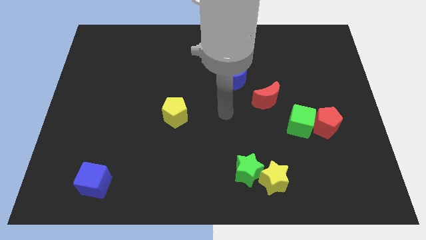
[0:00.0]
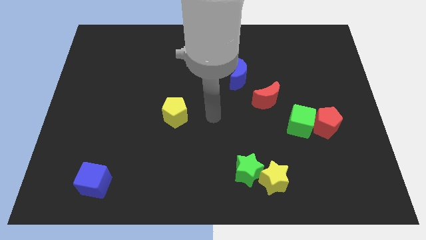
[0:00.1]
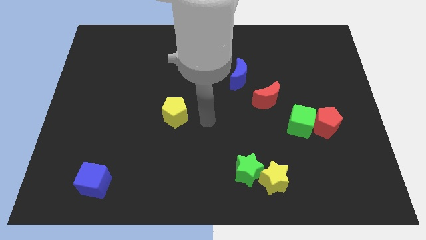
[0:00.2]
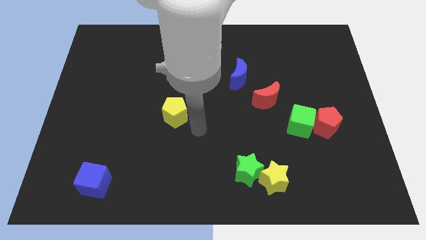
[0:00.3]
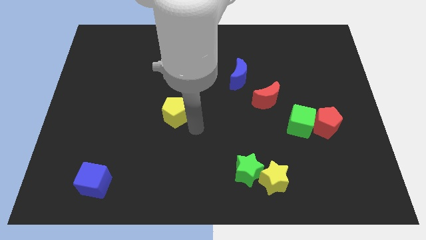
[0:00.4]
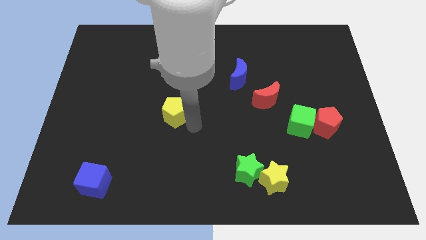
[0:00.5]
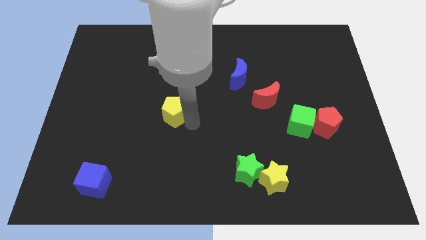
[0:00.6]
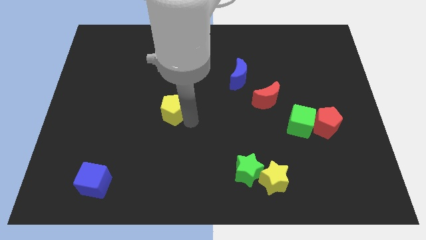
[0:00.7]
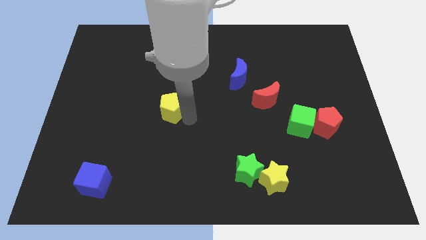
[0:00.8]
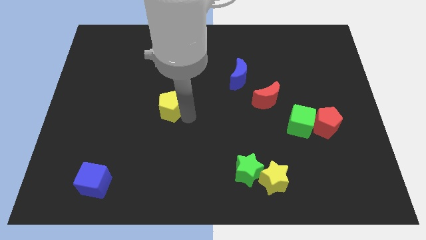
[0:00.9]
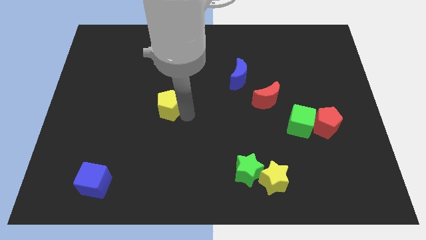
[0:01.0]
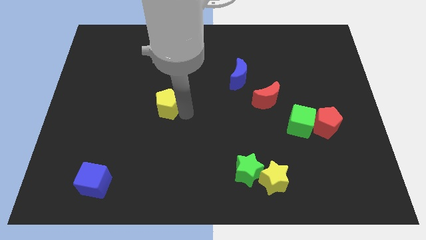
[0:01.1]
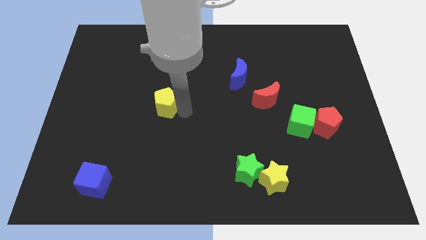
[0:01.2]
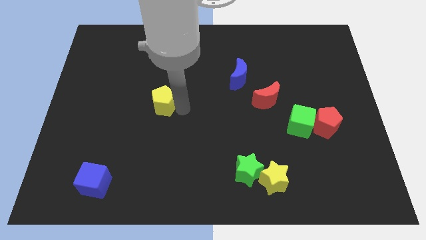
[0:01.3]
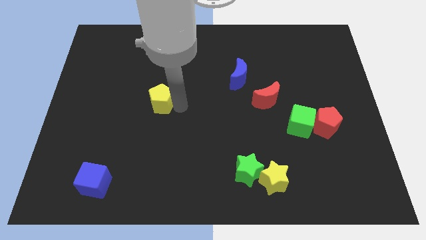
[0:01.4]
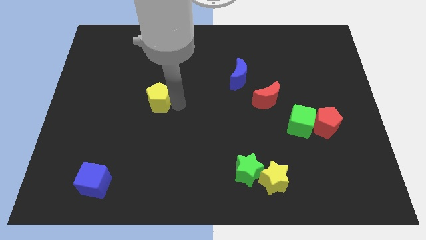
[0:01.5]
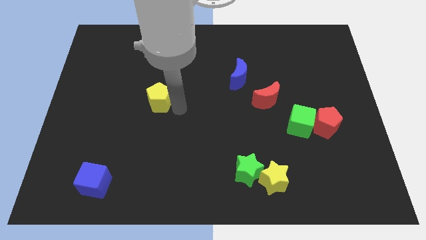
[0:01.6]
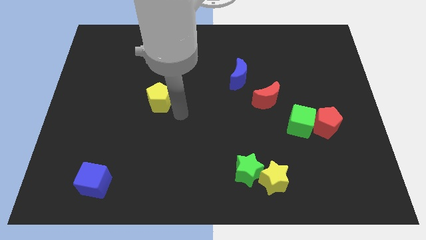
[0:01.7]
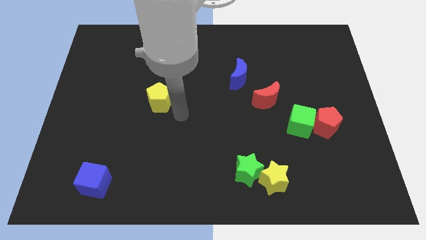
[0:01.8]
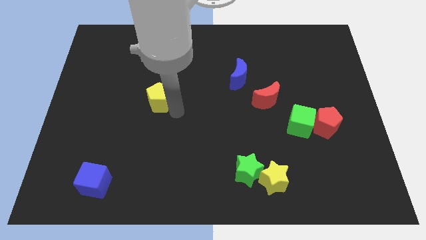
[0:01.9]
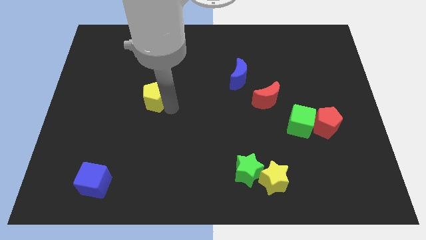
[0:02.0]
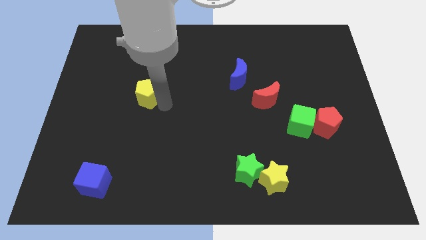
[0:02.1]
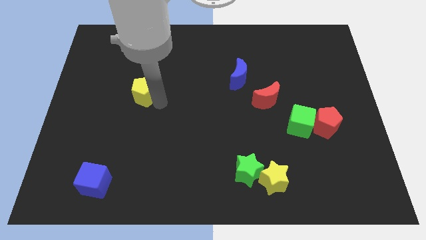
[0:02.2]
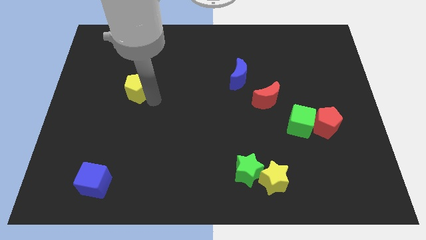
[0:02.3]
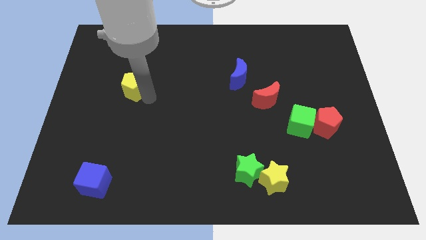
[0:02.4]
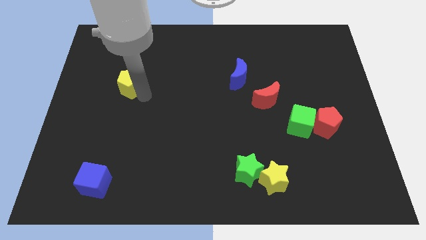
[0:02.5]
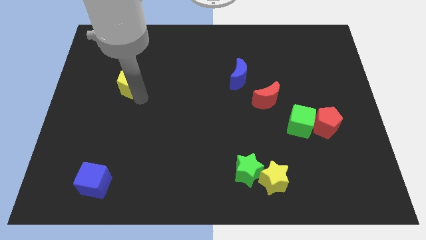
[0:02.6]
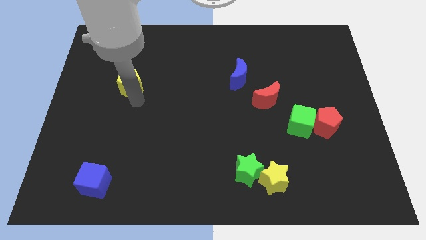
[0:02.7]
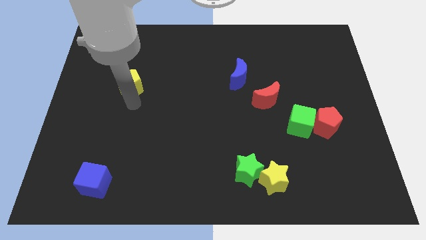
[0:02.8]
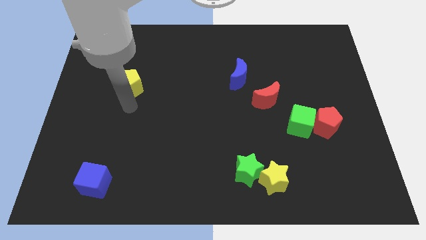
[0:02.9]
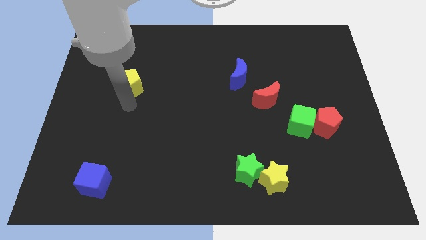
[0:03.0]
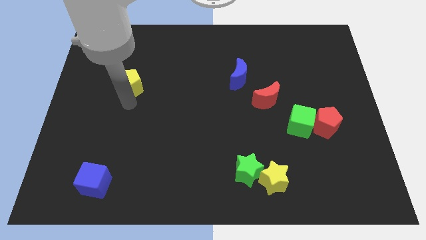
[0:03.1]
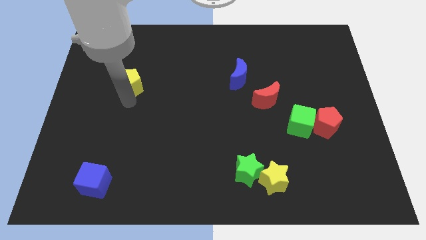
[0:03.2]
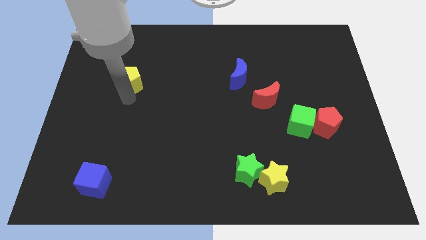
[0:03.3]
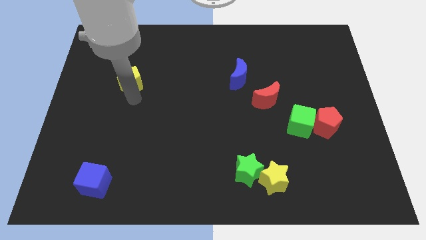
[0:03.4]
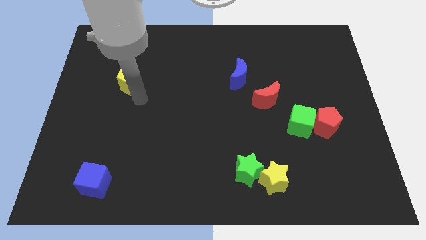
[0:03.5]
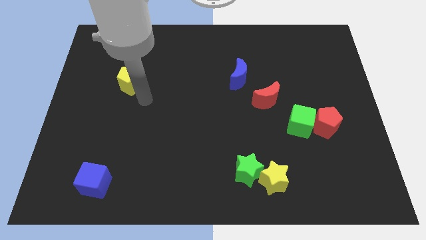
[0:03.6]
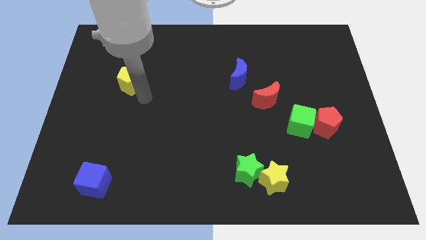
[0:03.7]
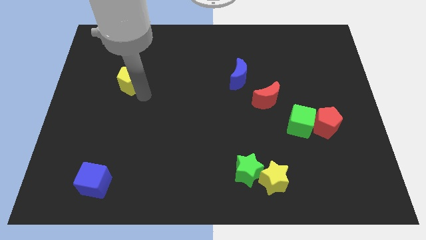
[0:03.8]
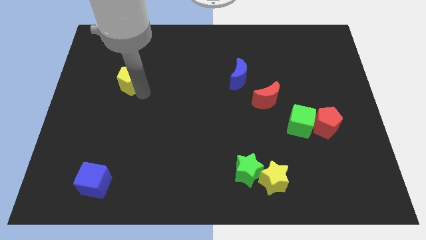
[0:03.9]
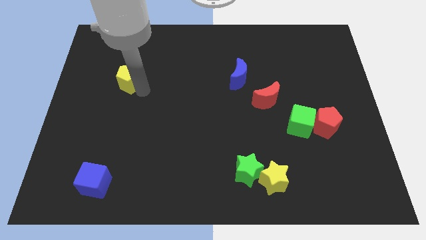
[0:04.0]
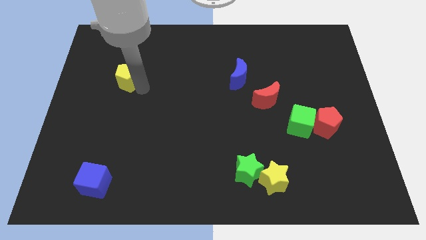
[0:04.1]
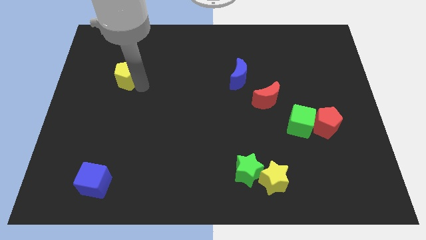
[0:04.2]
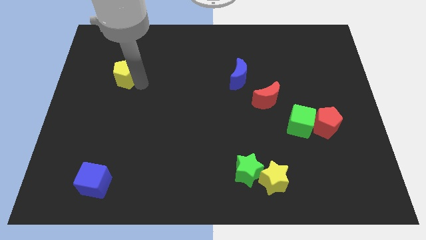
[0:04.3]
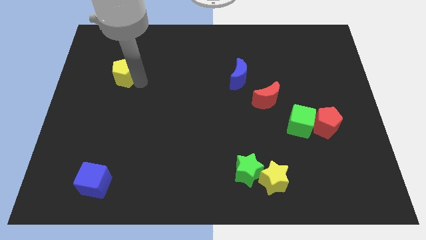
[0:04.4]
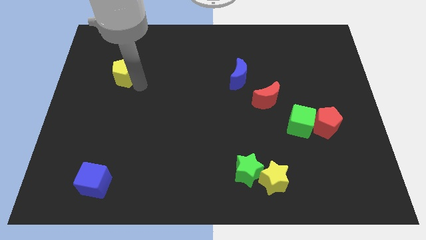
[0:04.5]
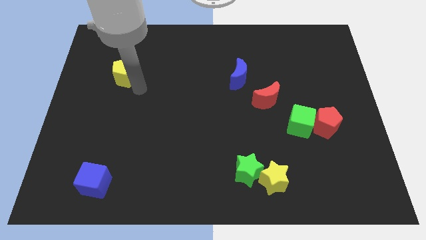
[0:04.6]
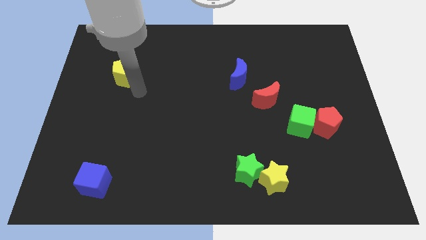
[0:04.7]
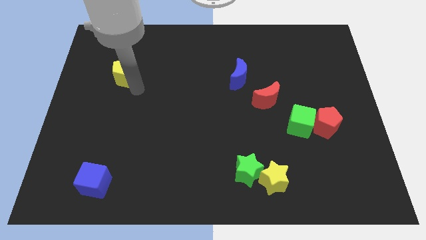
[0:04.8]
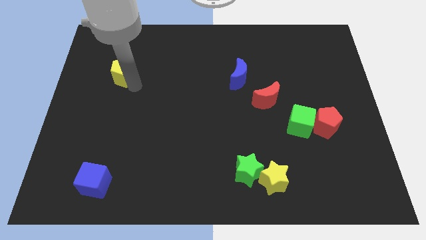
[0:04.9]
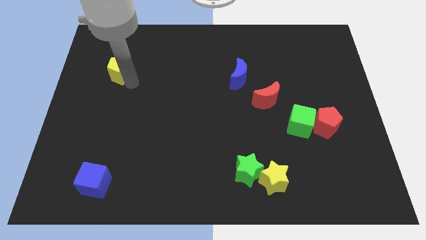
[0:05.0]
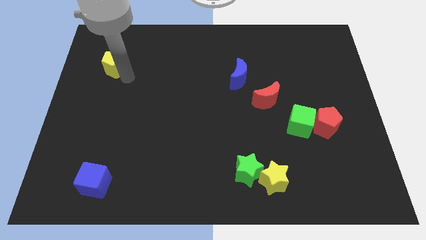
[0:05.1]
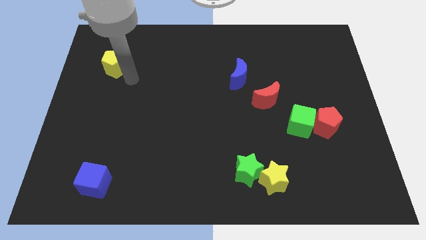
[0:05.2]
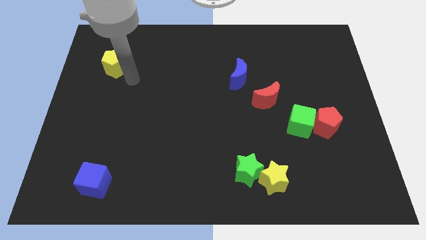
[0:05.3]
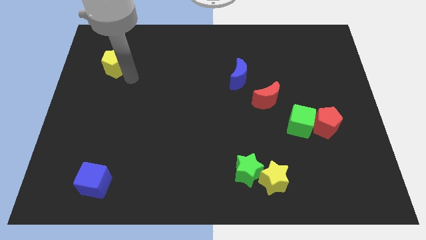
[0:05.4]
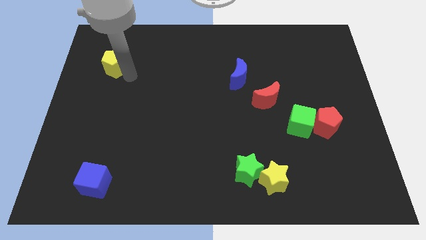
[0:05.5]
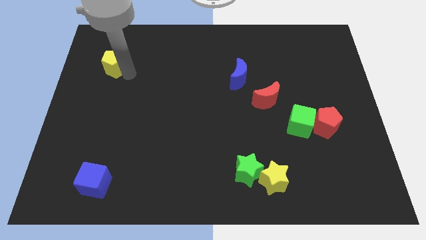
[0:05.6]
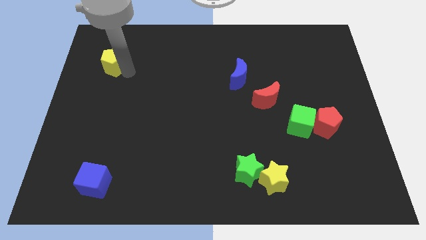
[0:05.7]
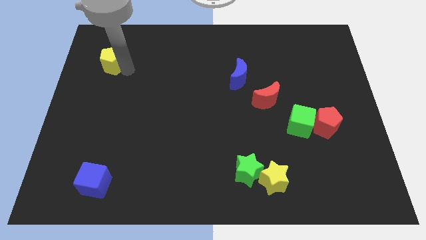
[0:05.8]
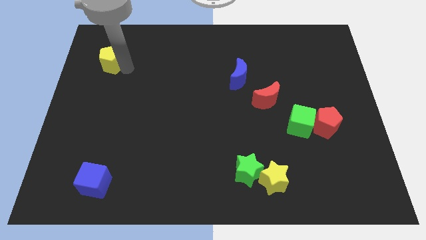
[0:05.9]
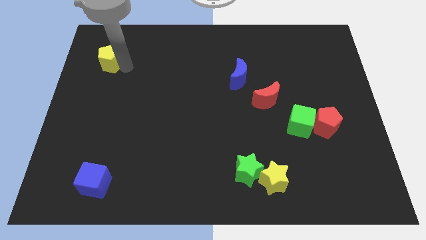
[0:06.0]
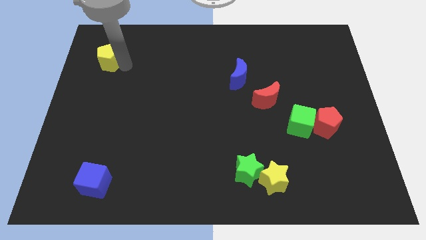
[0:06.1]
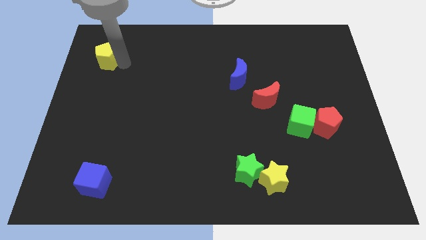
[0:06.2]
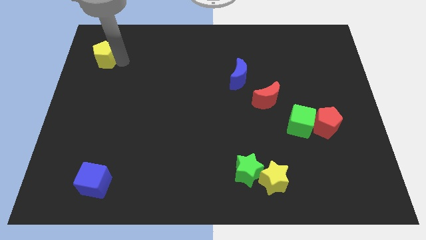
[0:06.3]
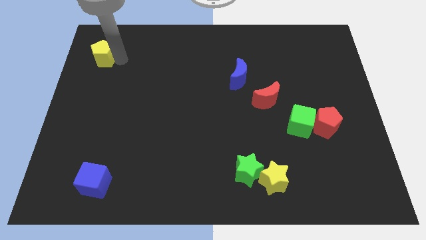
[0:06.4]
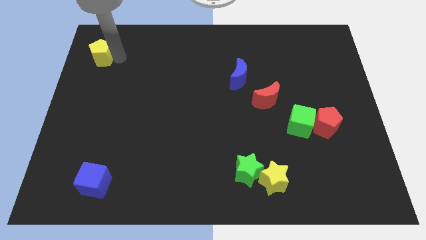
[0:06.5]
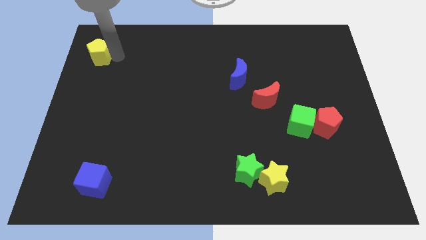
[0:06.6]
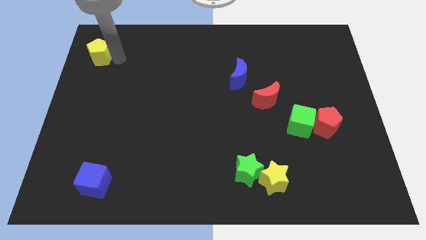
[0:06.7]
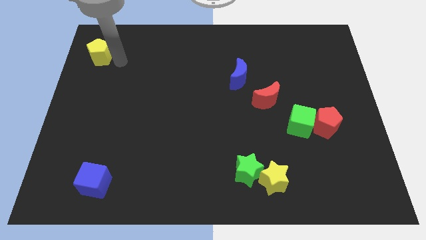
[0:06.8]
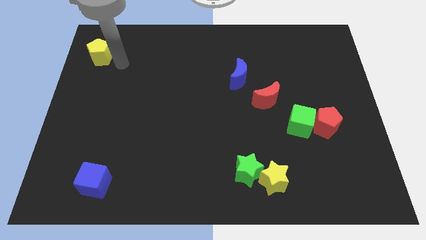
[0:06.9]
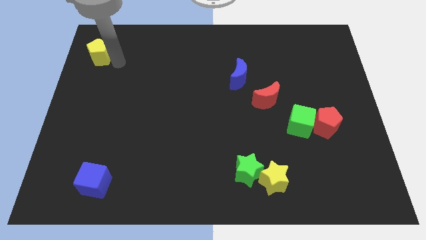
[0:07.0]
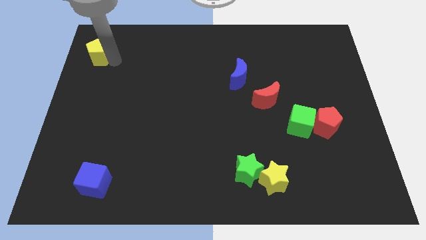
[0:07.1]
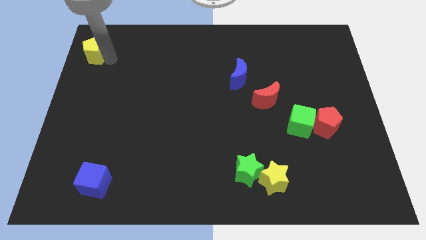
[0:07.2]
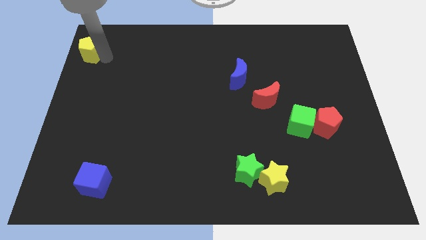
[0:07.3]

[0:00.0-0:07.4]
move the yellow pentagon to the top left of the board

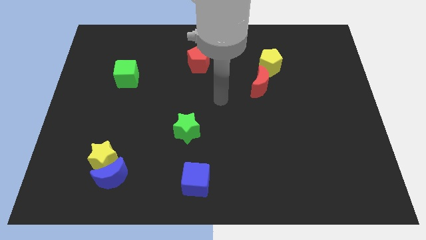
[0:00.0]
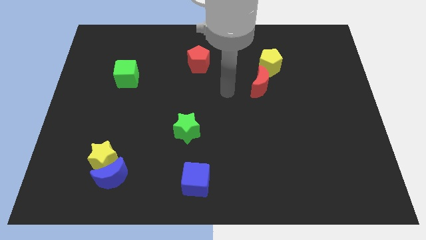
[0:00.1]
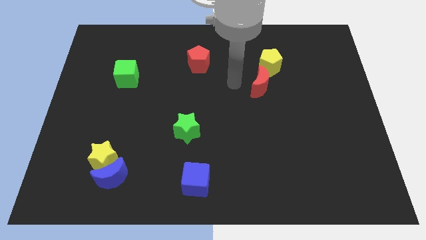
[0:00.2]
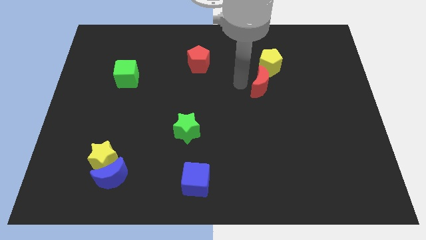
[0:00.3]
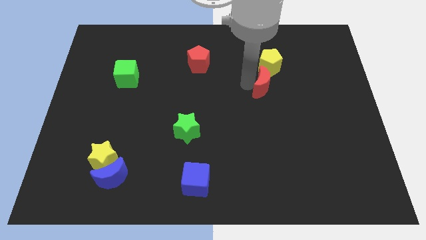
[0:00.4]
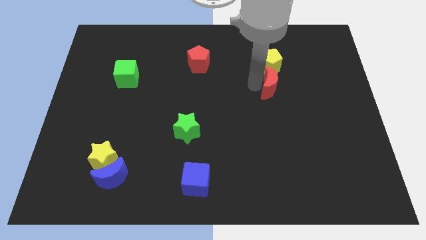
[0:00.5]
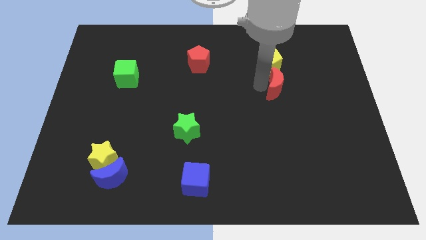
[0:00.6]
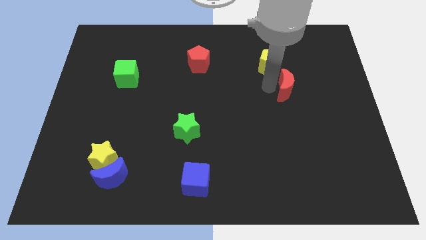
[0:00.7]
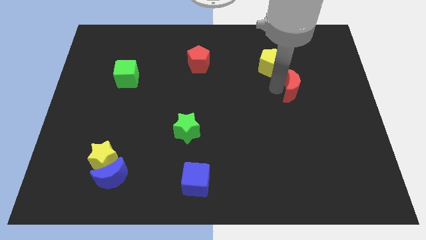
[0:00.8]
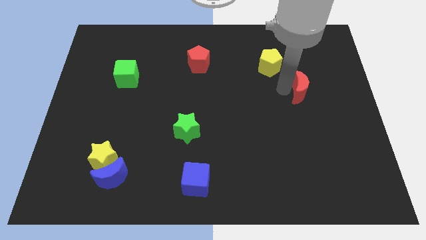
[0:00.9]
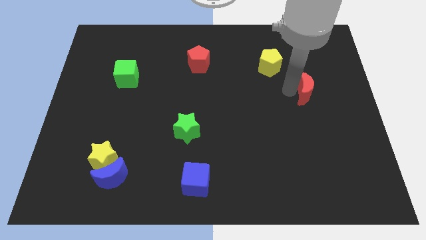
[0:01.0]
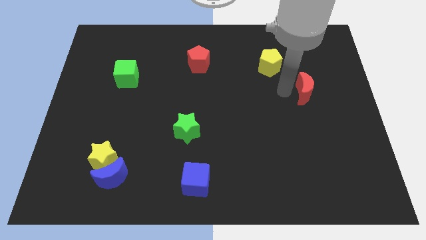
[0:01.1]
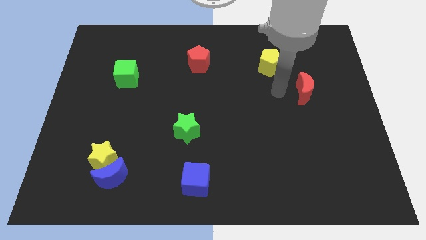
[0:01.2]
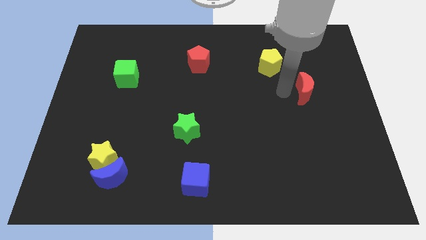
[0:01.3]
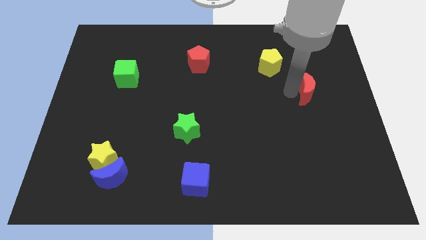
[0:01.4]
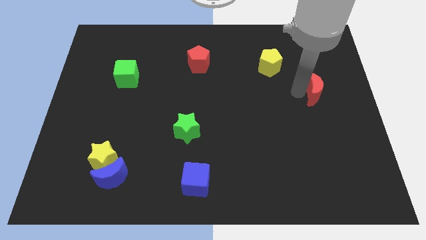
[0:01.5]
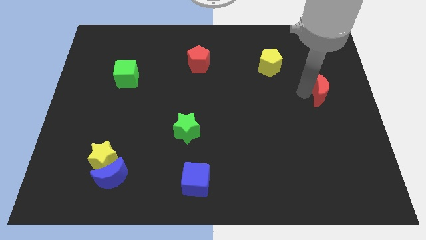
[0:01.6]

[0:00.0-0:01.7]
slide the red moon to the right side of the board
